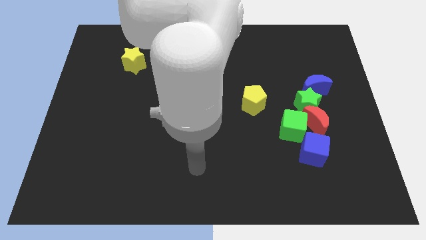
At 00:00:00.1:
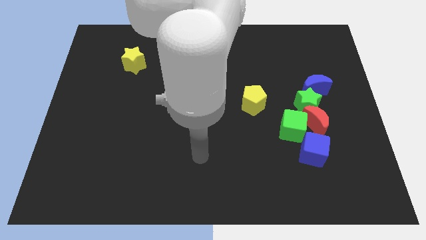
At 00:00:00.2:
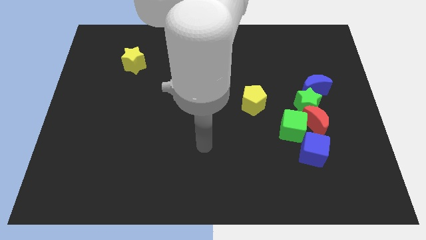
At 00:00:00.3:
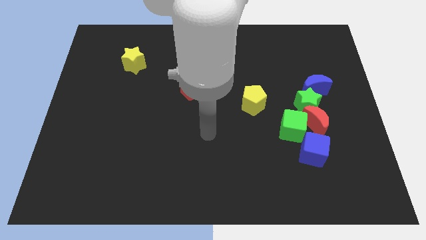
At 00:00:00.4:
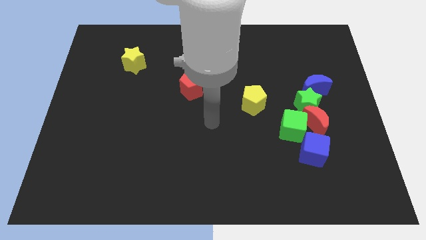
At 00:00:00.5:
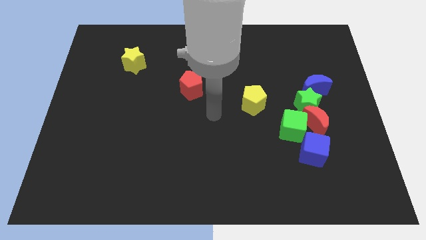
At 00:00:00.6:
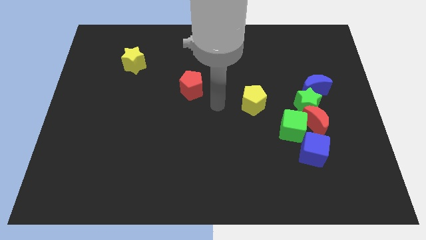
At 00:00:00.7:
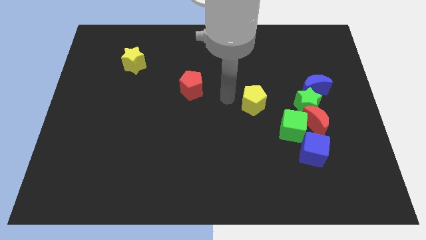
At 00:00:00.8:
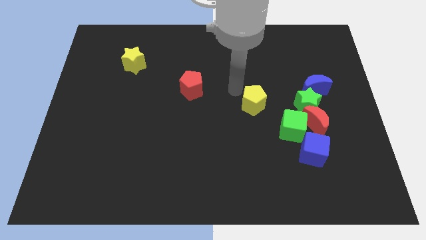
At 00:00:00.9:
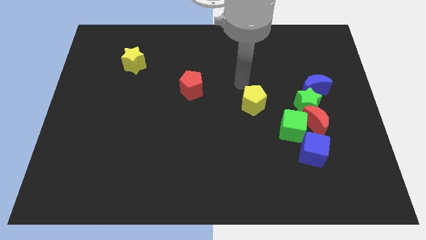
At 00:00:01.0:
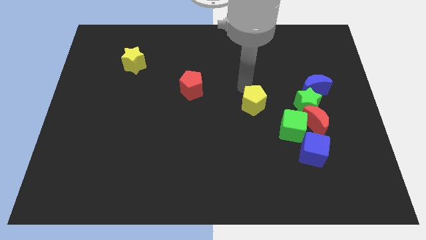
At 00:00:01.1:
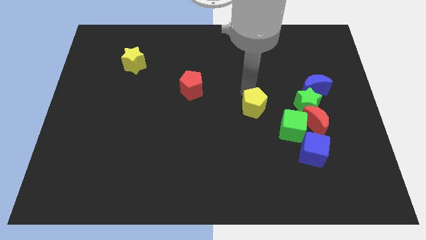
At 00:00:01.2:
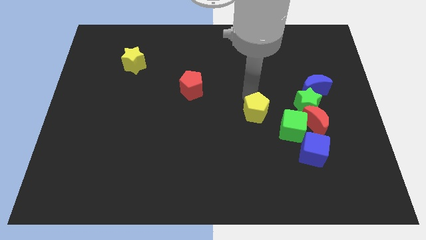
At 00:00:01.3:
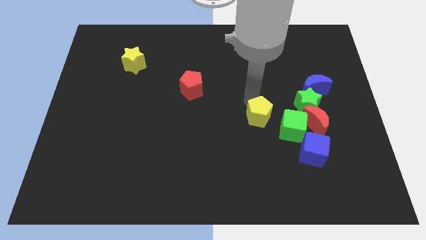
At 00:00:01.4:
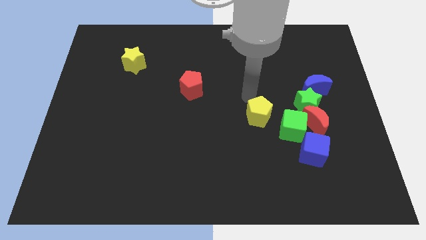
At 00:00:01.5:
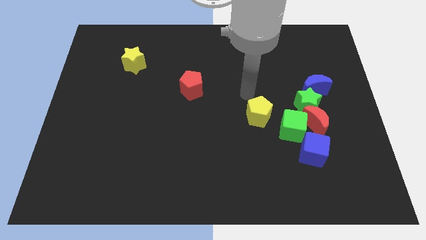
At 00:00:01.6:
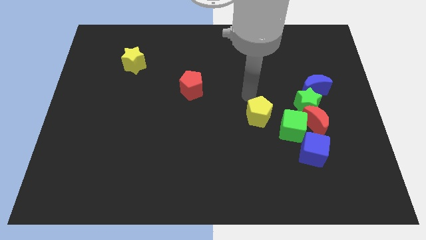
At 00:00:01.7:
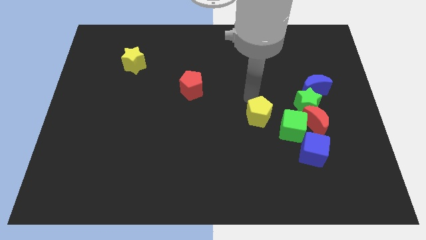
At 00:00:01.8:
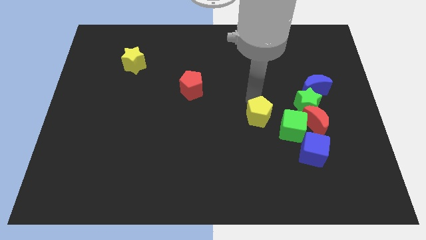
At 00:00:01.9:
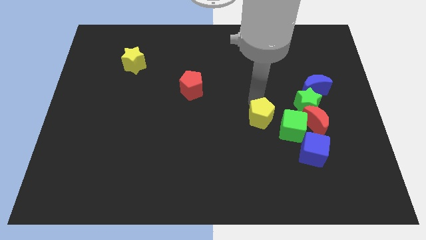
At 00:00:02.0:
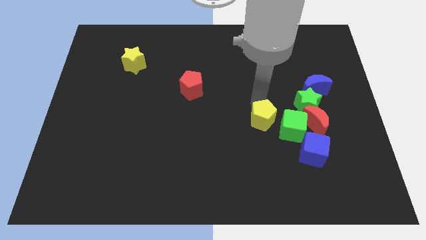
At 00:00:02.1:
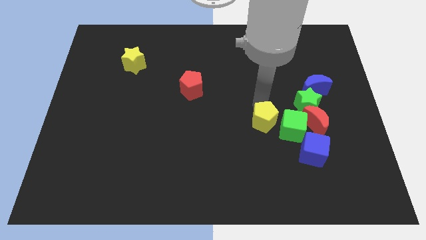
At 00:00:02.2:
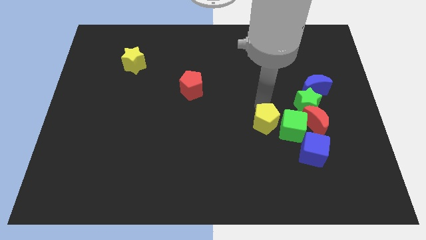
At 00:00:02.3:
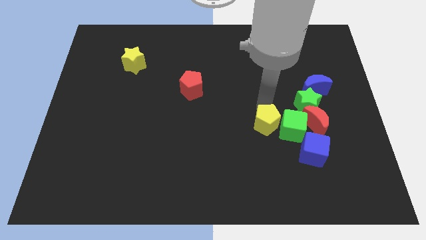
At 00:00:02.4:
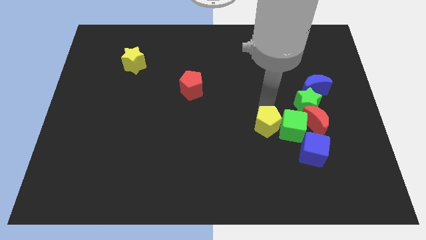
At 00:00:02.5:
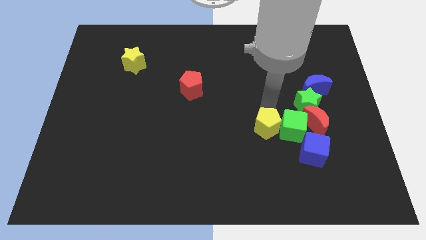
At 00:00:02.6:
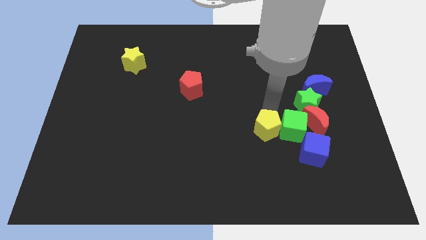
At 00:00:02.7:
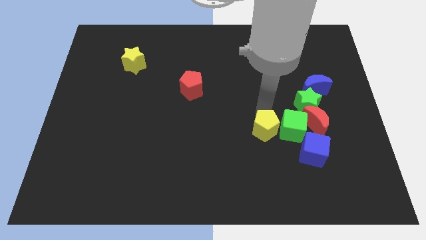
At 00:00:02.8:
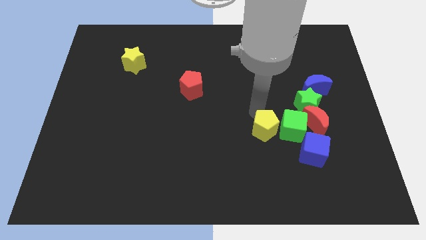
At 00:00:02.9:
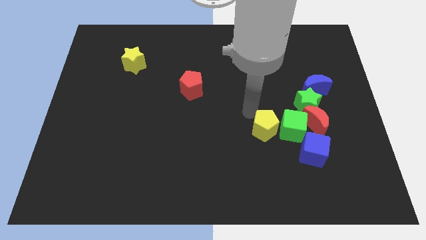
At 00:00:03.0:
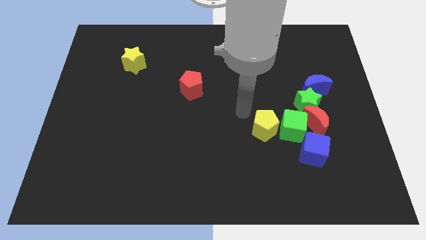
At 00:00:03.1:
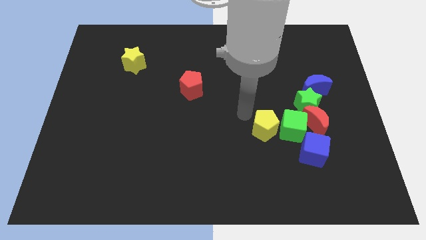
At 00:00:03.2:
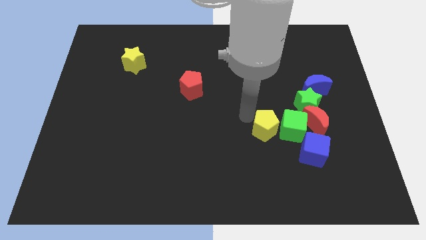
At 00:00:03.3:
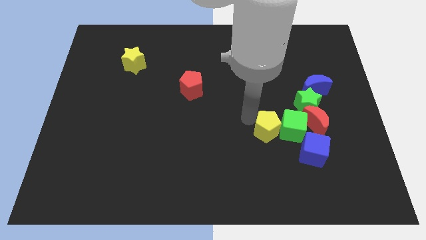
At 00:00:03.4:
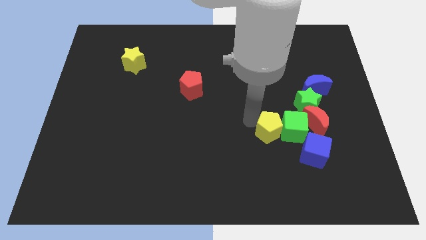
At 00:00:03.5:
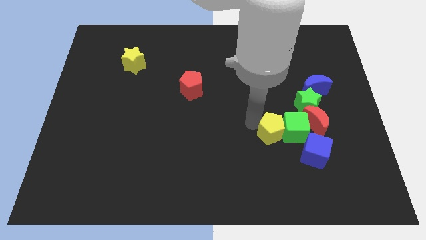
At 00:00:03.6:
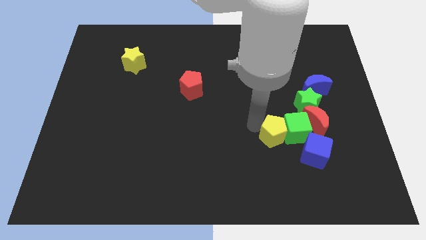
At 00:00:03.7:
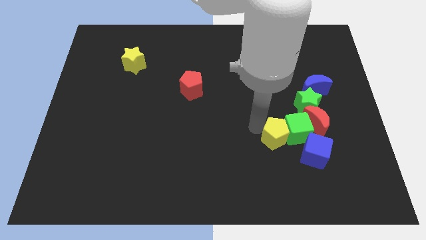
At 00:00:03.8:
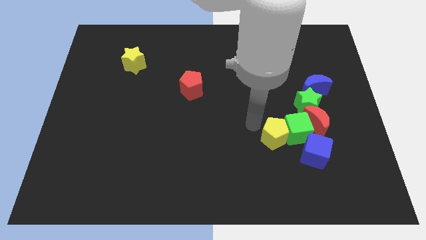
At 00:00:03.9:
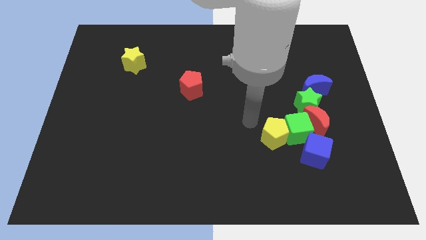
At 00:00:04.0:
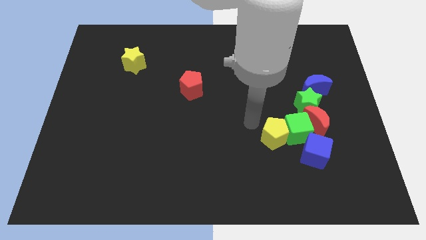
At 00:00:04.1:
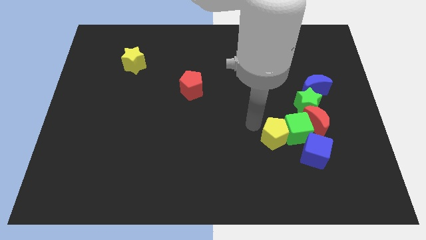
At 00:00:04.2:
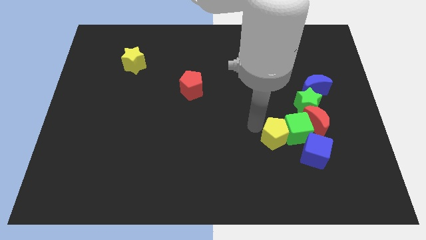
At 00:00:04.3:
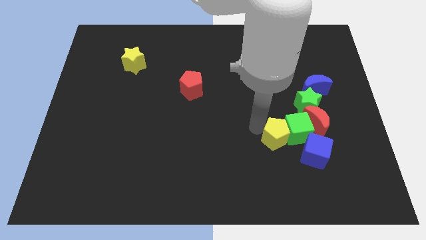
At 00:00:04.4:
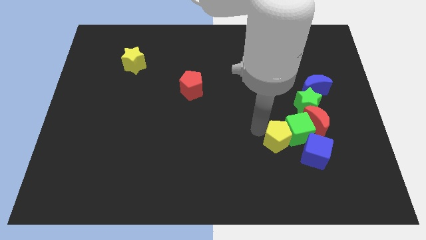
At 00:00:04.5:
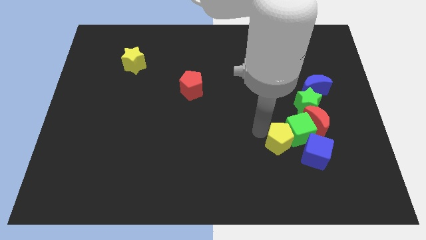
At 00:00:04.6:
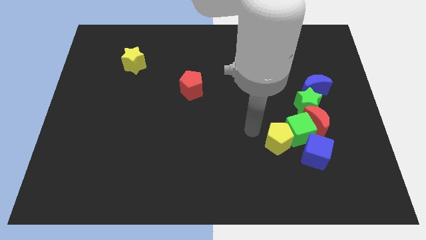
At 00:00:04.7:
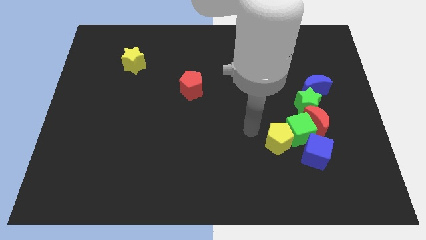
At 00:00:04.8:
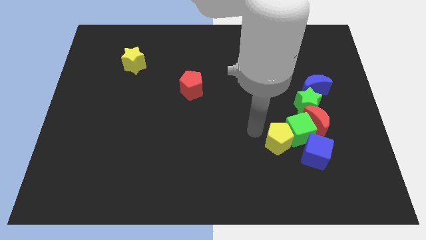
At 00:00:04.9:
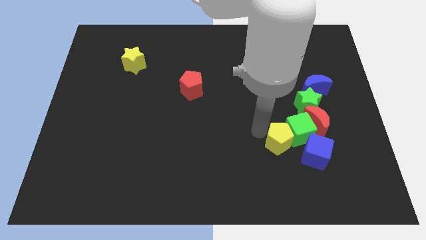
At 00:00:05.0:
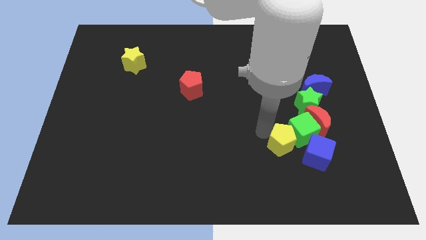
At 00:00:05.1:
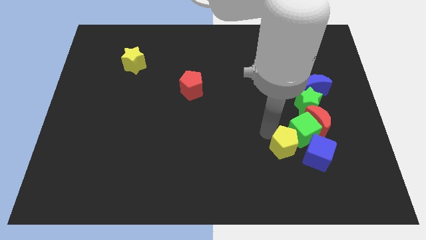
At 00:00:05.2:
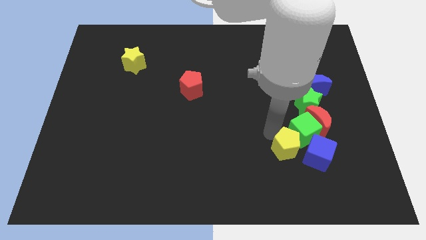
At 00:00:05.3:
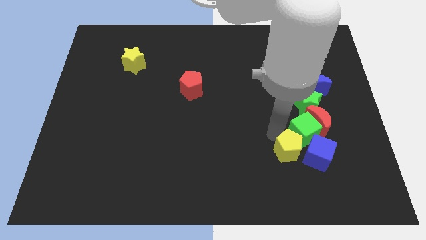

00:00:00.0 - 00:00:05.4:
move the yellow pentagon close to the blue cube
